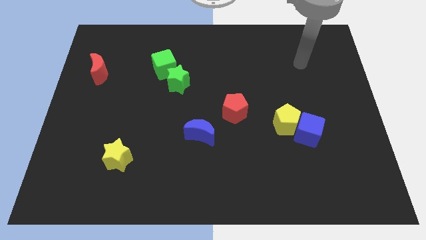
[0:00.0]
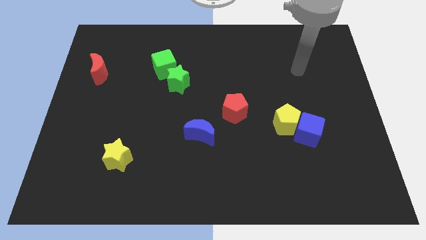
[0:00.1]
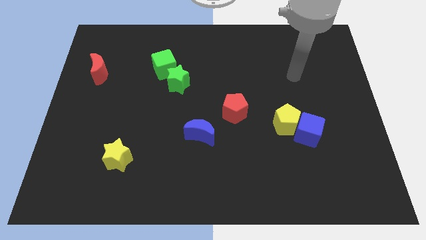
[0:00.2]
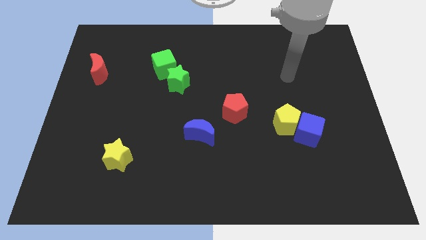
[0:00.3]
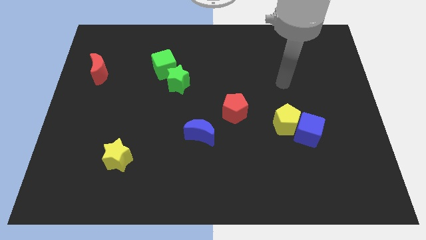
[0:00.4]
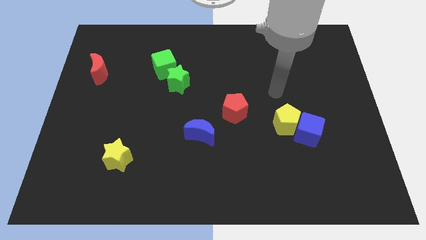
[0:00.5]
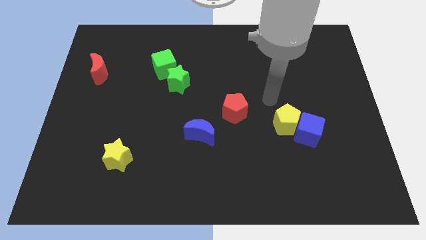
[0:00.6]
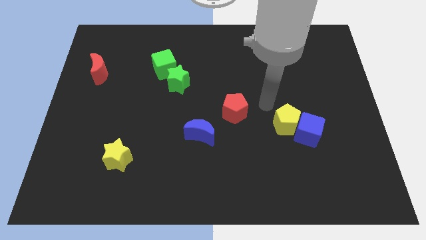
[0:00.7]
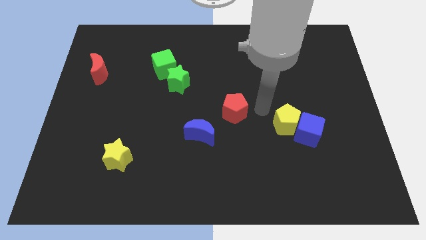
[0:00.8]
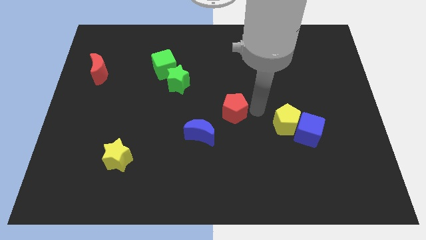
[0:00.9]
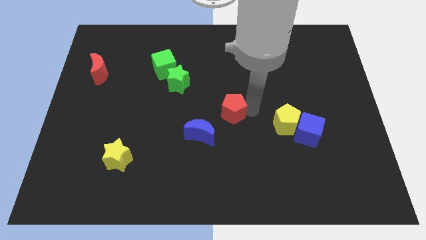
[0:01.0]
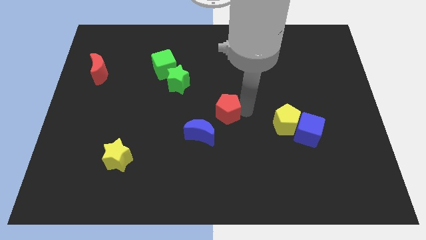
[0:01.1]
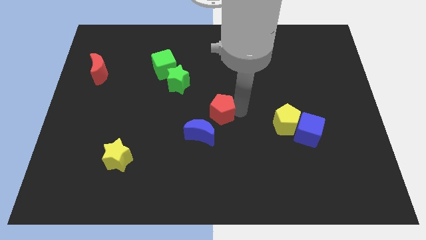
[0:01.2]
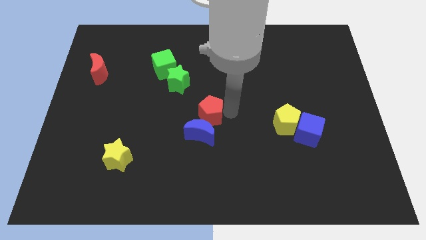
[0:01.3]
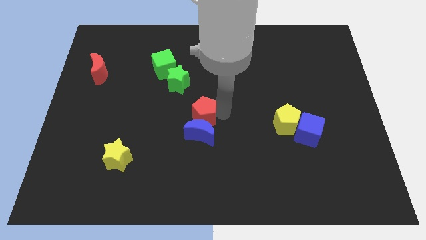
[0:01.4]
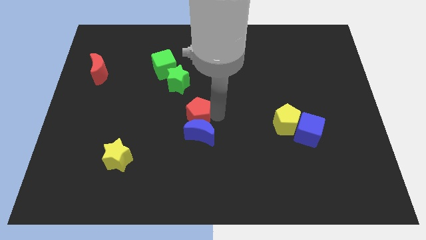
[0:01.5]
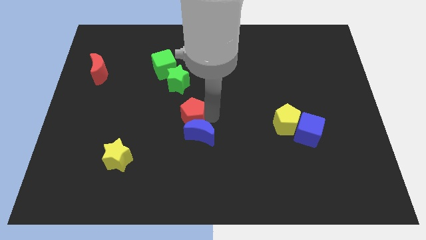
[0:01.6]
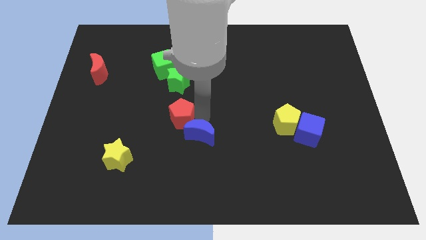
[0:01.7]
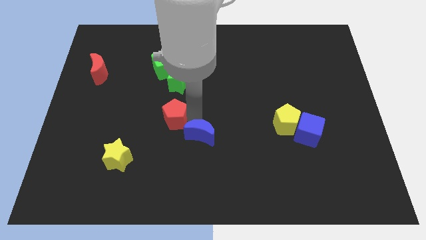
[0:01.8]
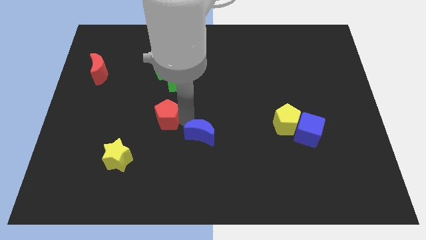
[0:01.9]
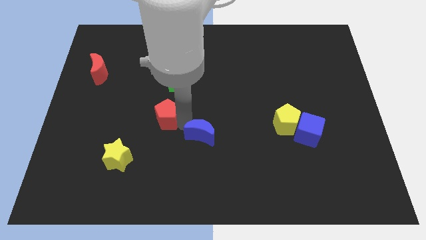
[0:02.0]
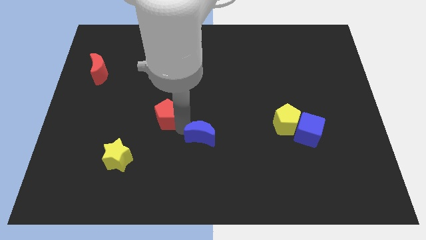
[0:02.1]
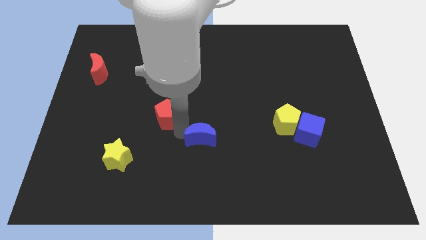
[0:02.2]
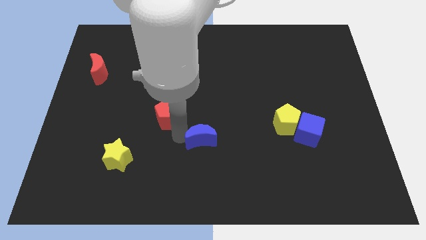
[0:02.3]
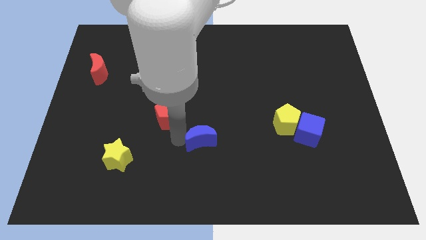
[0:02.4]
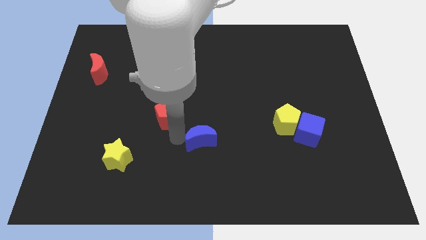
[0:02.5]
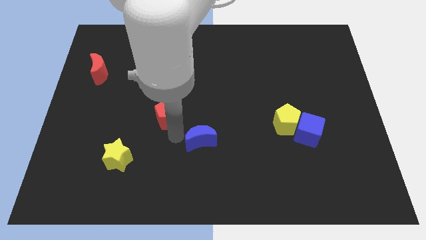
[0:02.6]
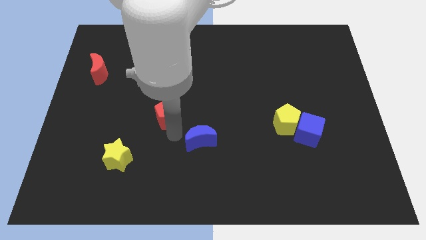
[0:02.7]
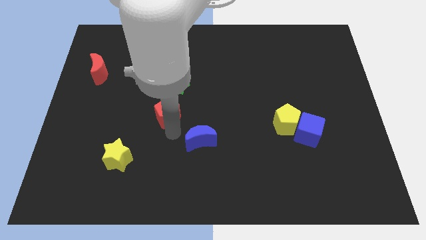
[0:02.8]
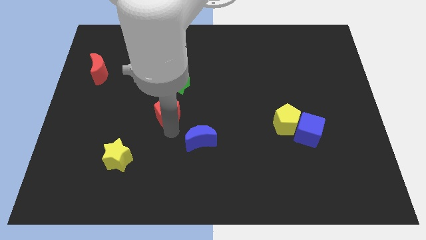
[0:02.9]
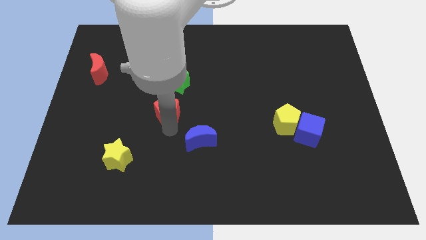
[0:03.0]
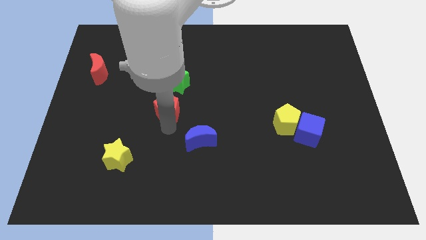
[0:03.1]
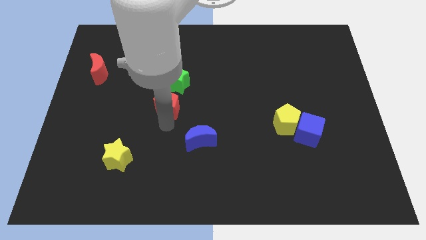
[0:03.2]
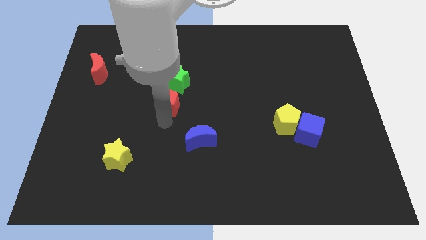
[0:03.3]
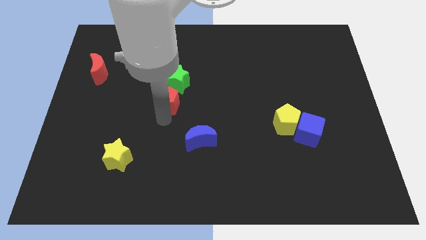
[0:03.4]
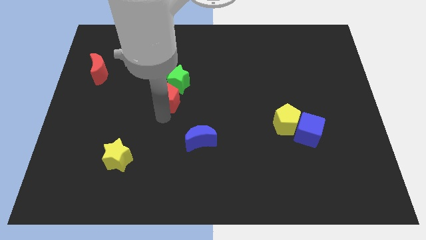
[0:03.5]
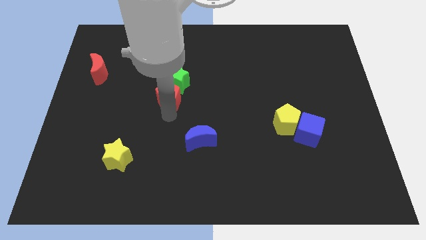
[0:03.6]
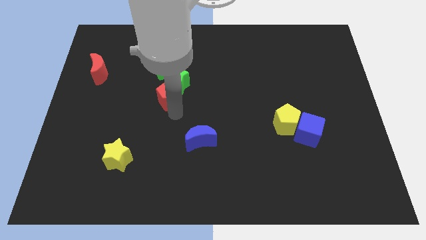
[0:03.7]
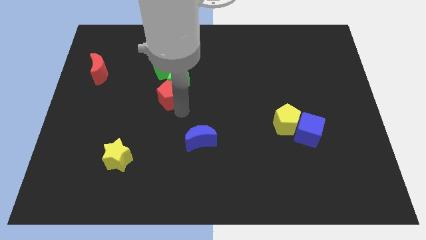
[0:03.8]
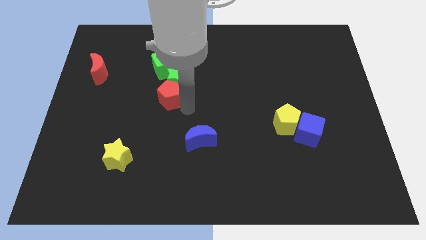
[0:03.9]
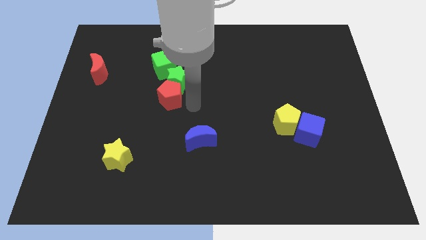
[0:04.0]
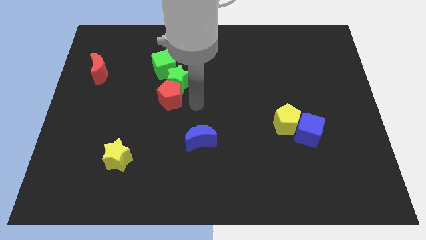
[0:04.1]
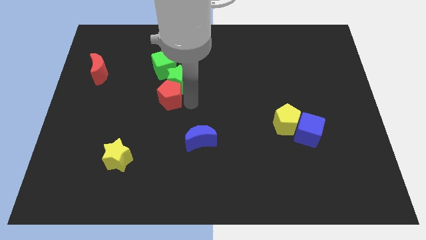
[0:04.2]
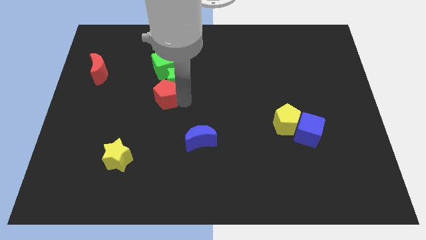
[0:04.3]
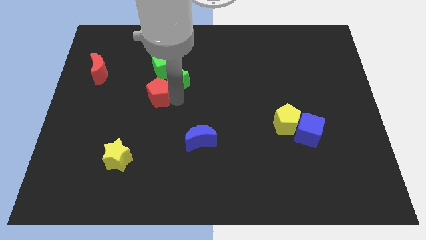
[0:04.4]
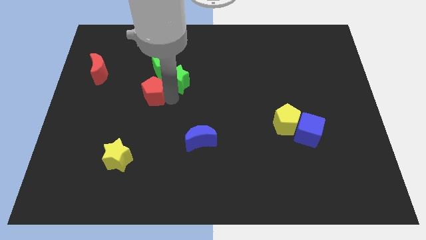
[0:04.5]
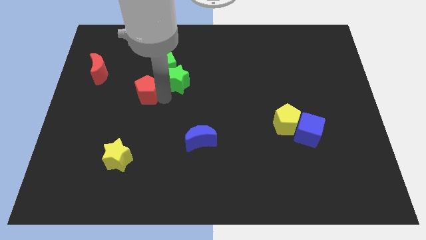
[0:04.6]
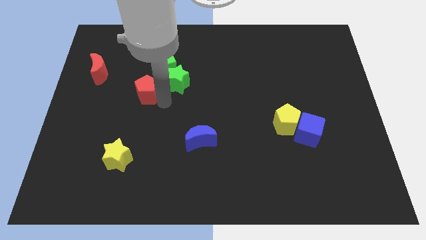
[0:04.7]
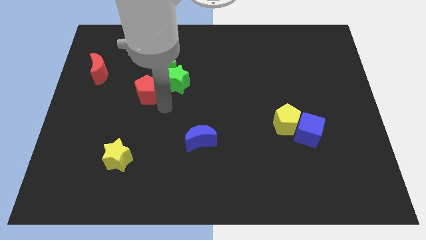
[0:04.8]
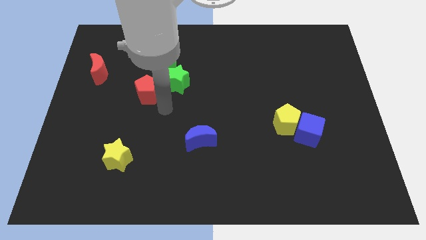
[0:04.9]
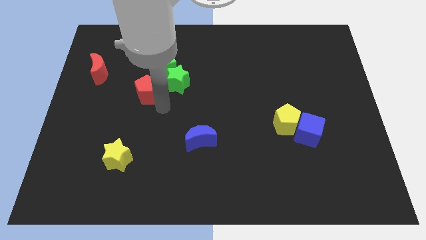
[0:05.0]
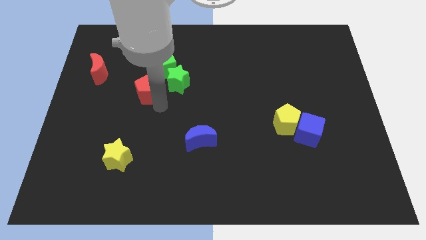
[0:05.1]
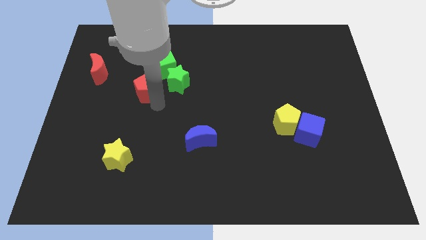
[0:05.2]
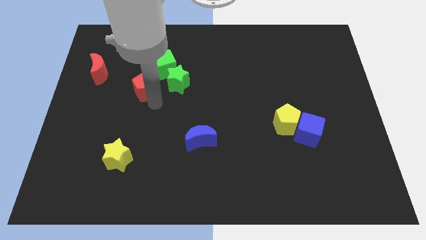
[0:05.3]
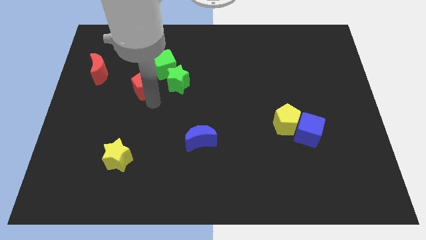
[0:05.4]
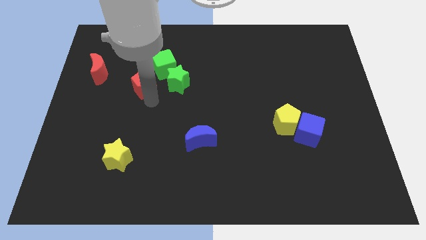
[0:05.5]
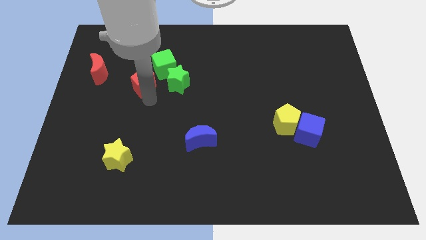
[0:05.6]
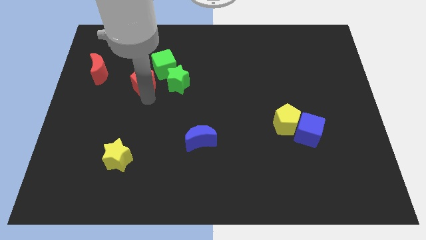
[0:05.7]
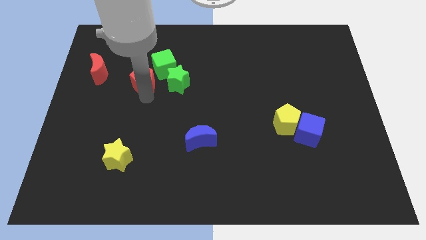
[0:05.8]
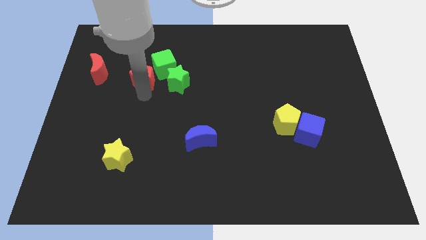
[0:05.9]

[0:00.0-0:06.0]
push the red pentagon left of the green cube
